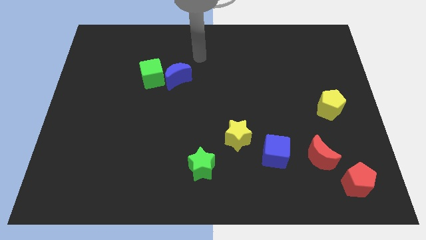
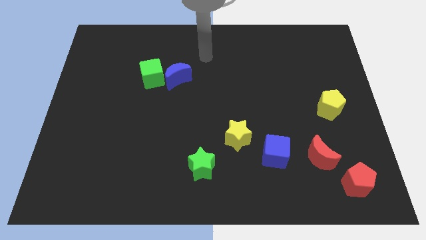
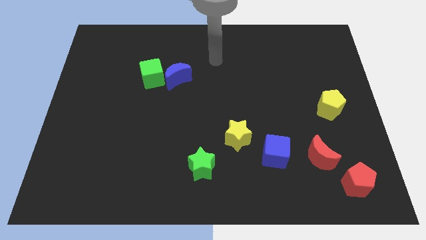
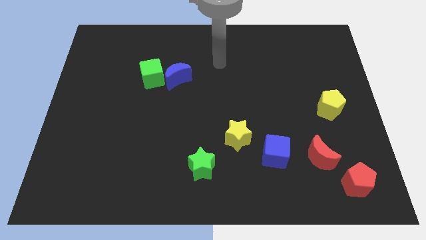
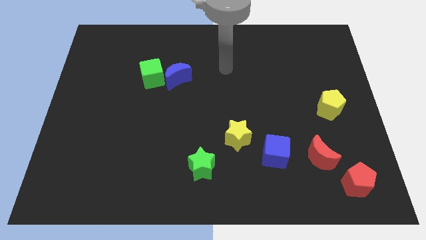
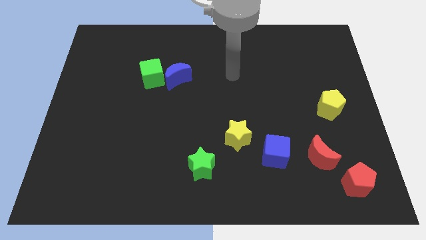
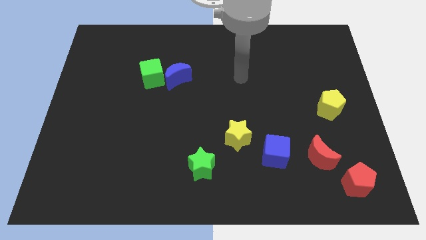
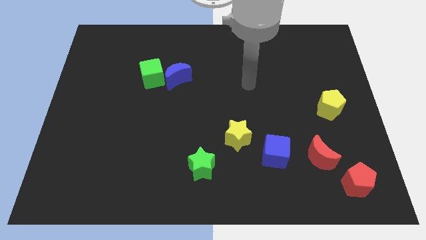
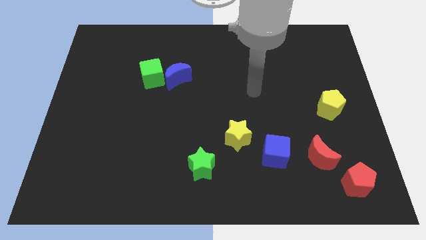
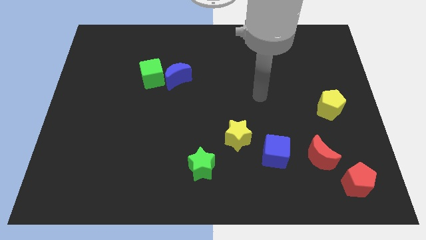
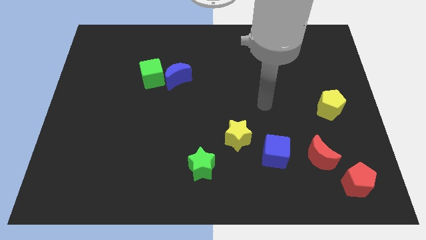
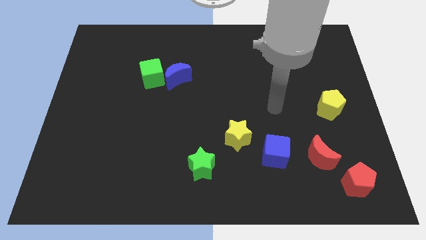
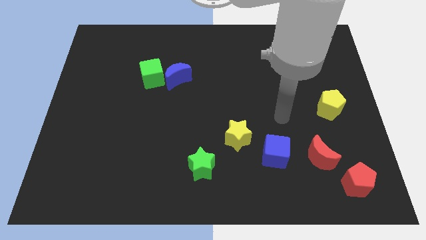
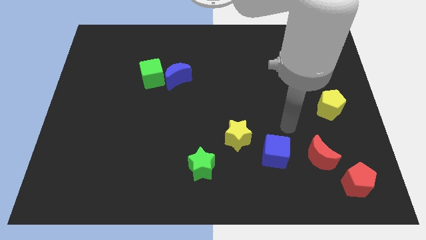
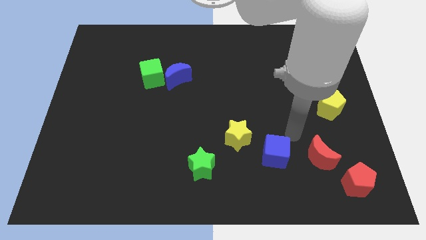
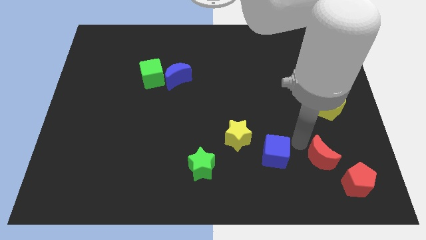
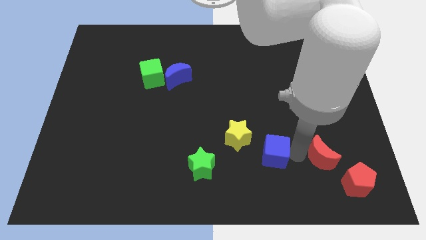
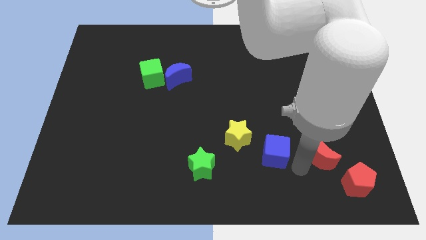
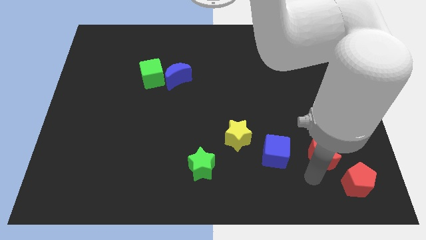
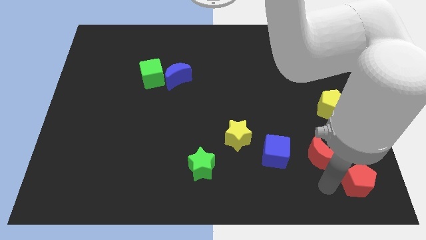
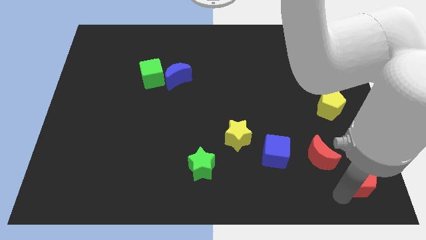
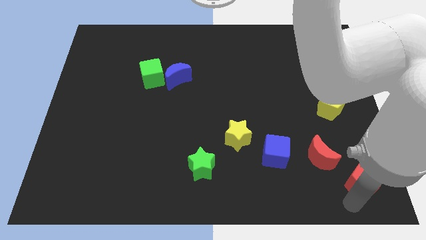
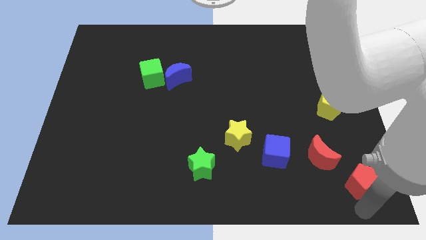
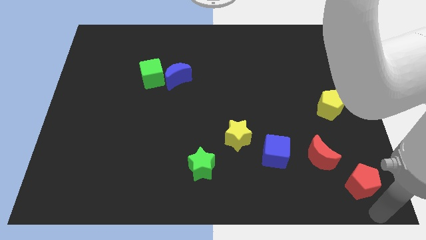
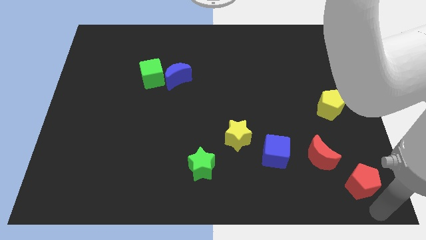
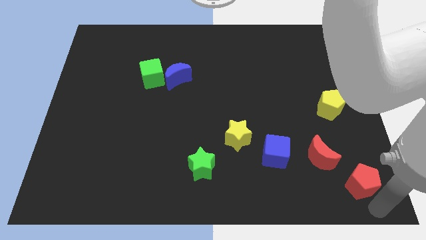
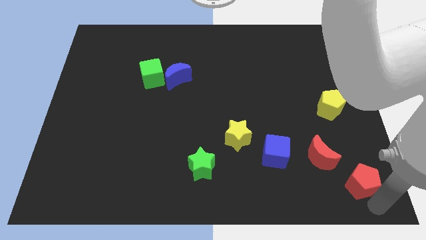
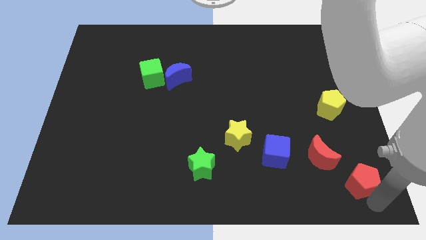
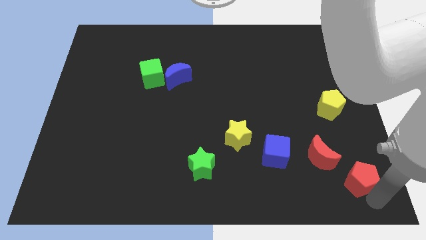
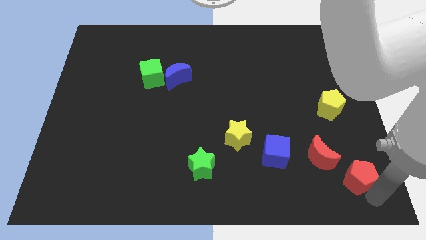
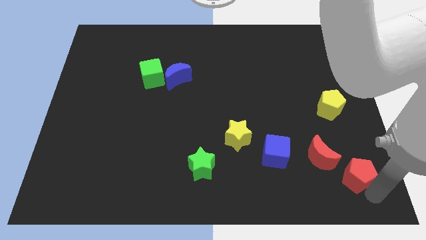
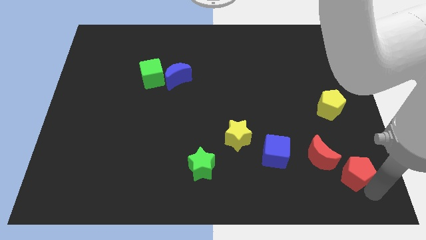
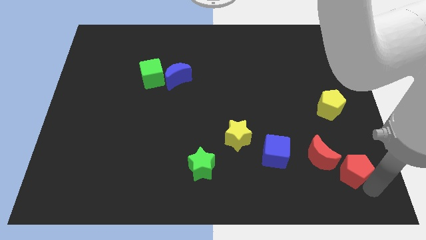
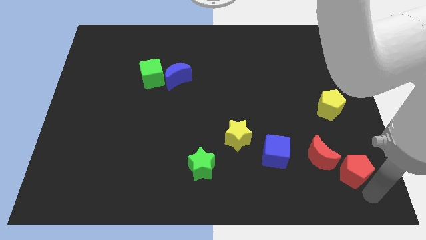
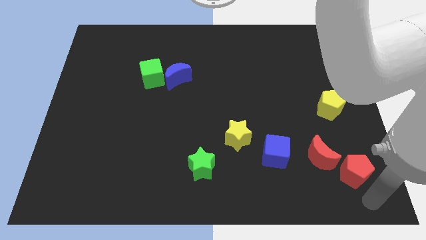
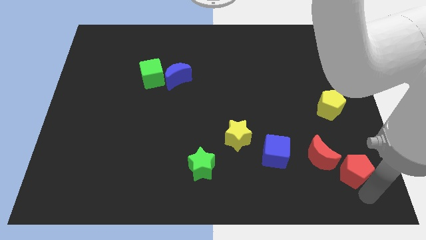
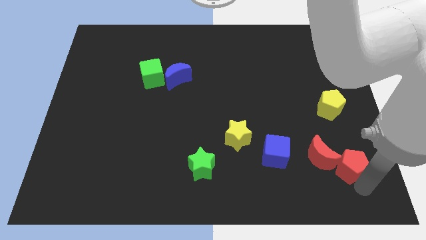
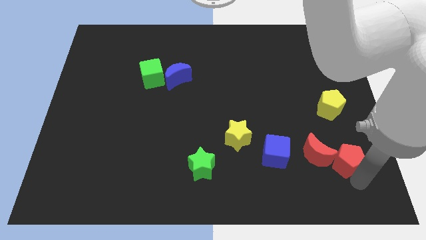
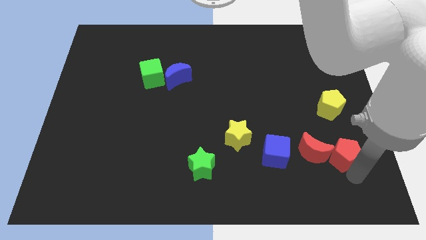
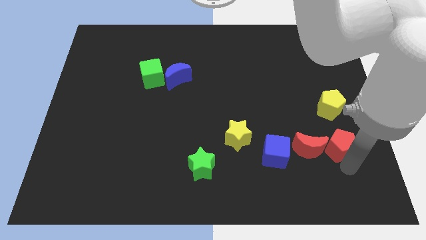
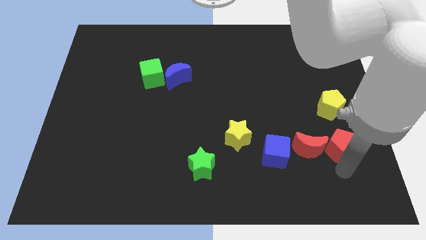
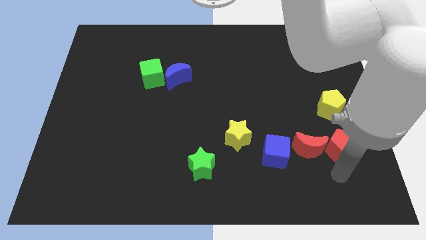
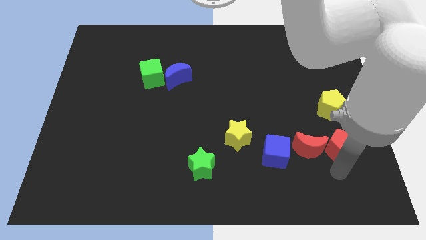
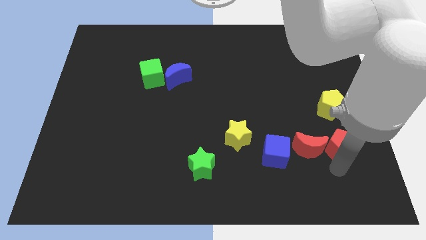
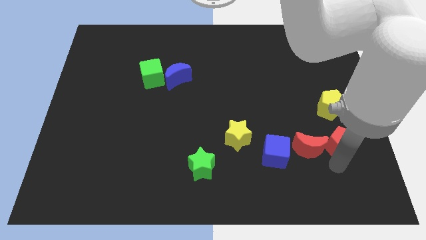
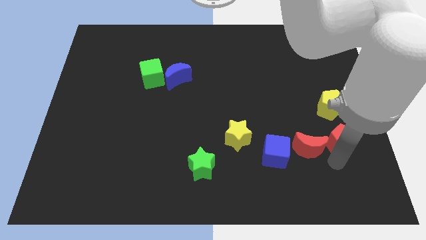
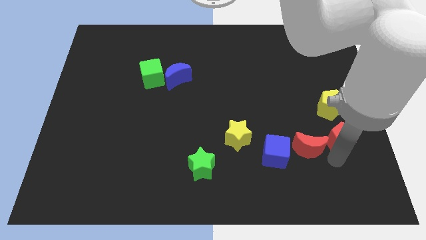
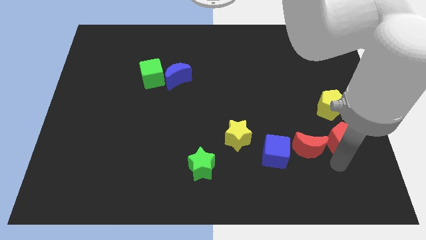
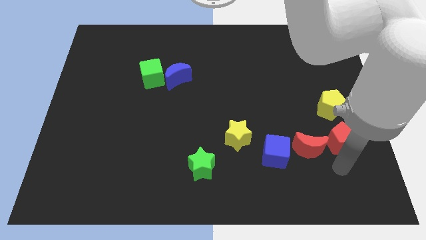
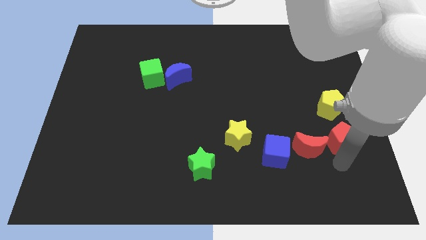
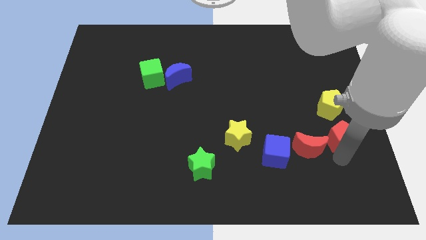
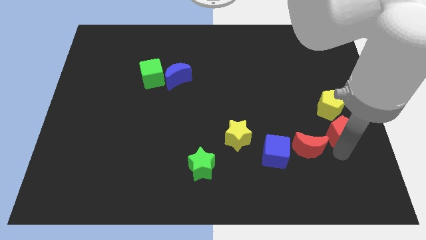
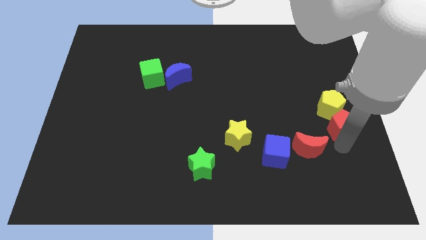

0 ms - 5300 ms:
put the red pentagon close to the yellow pentagon

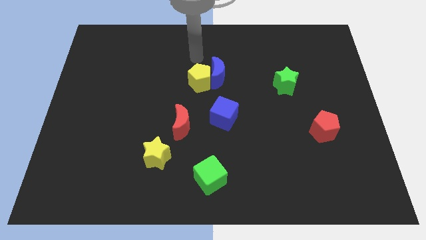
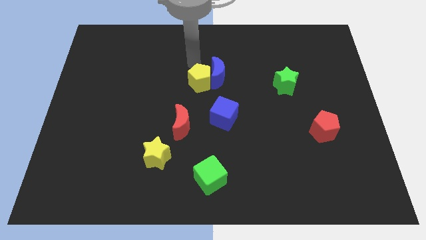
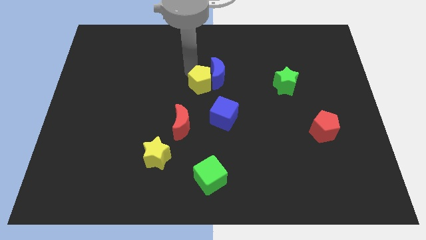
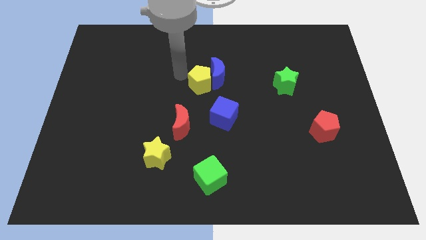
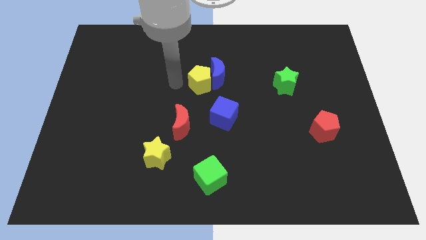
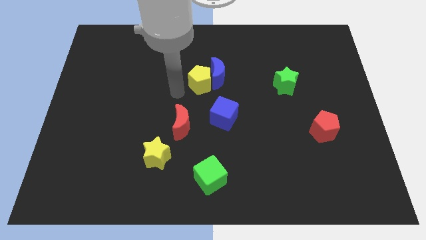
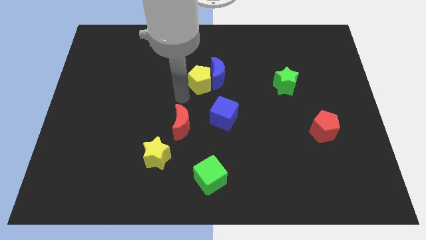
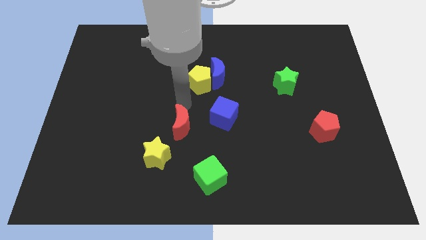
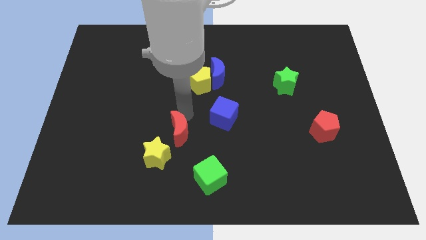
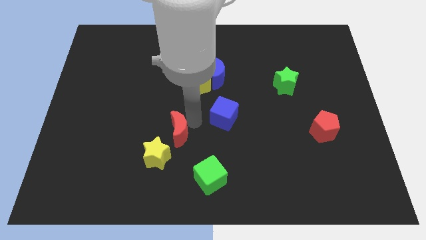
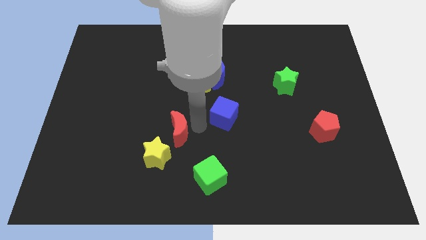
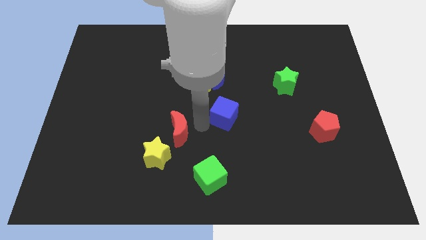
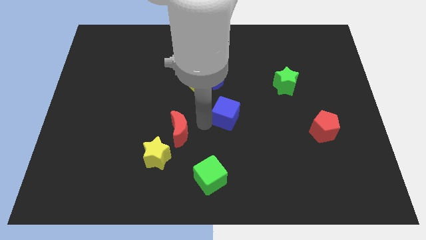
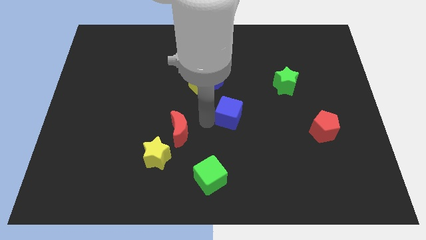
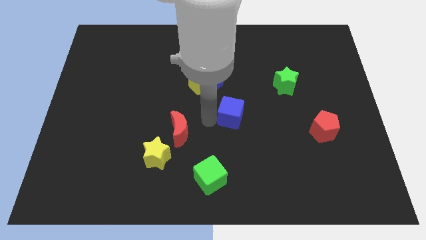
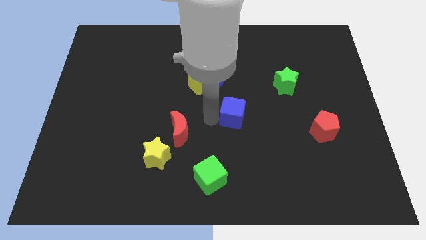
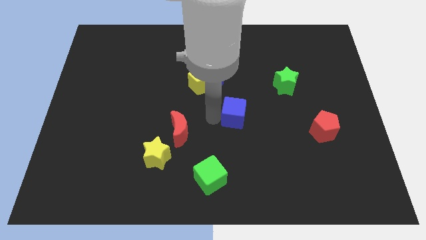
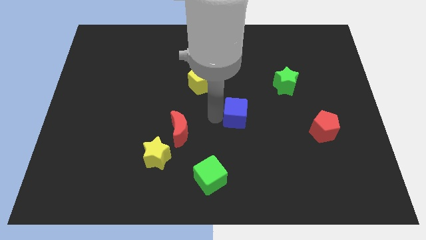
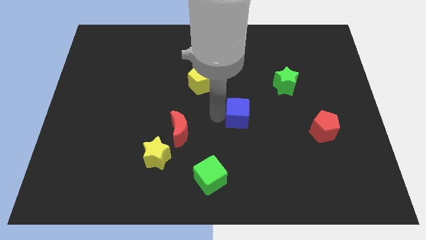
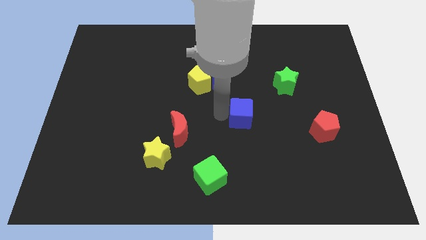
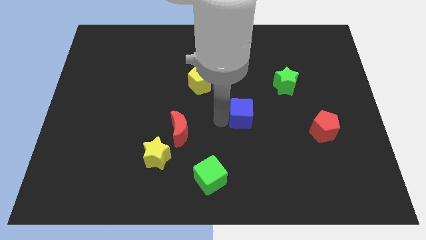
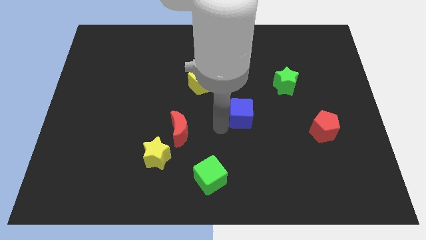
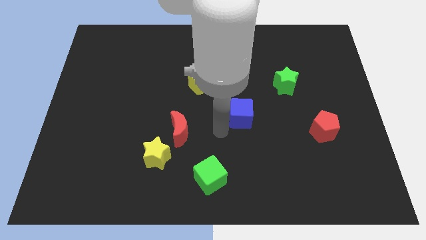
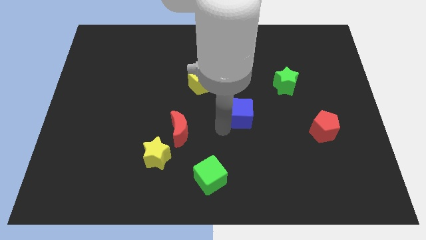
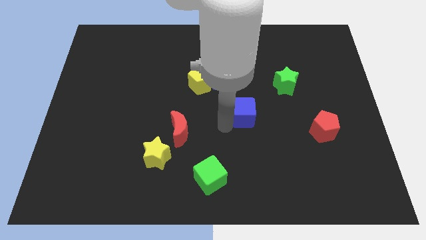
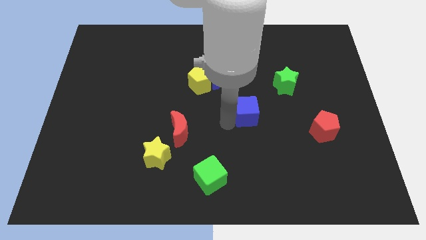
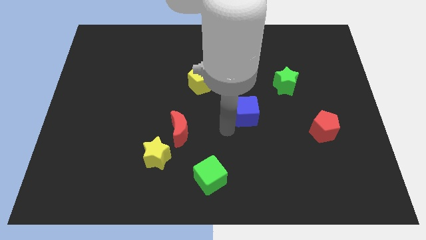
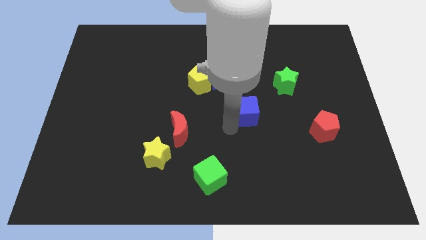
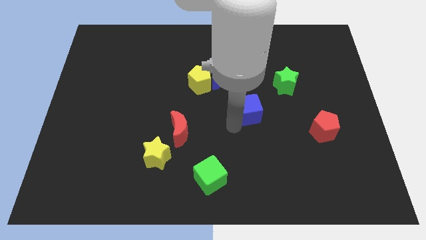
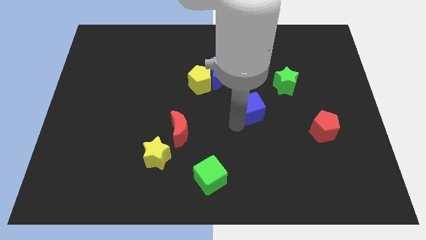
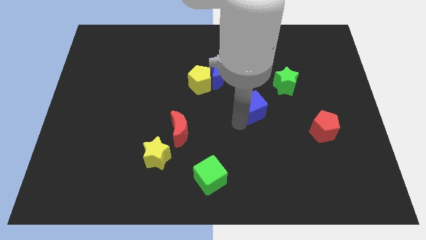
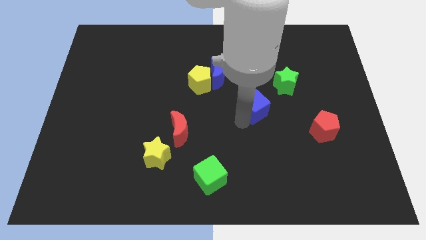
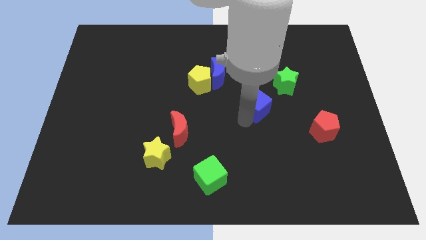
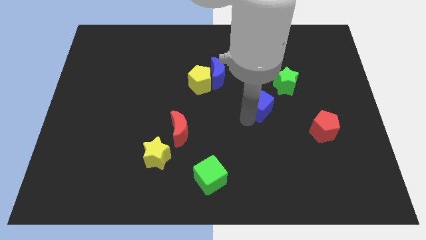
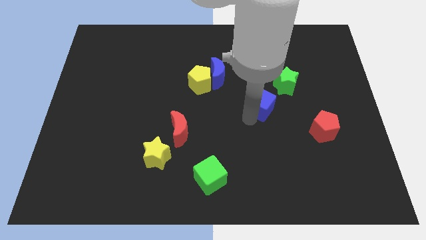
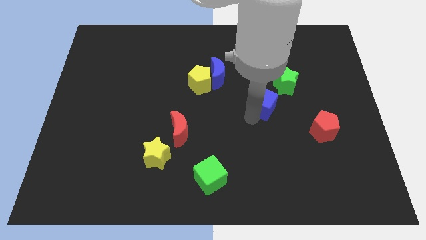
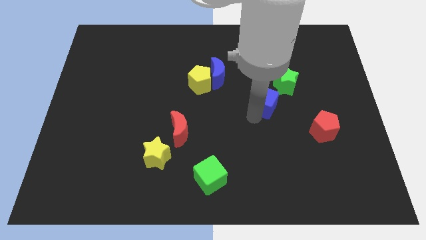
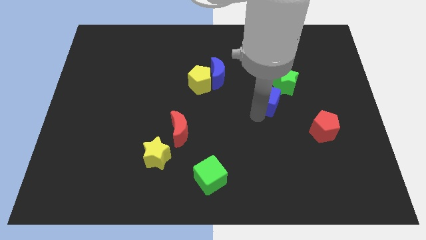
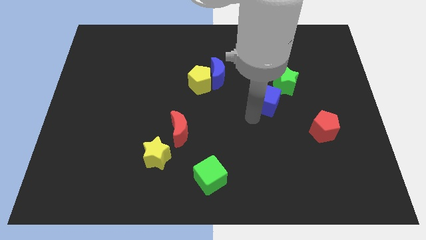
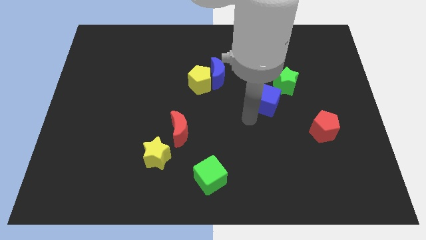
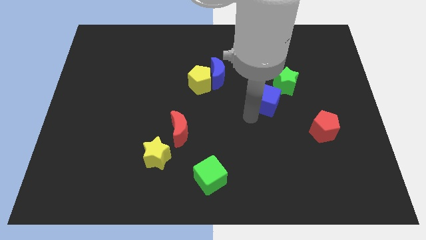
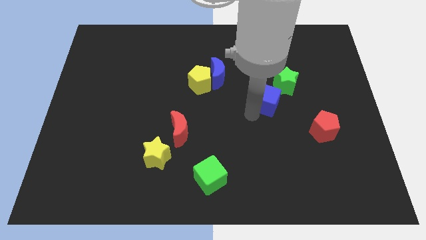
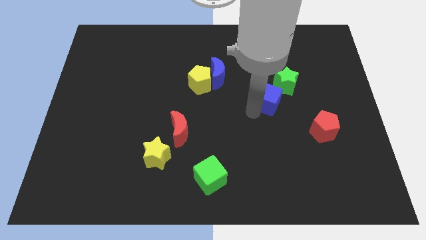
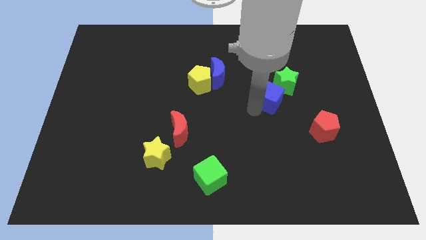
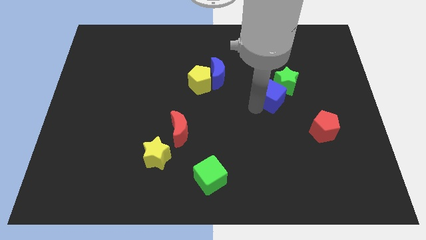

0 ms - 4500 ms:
slide the blue cube next to the green star
